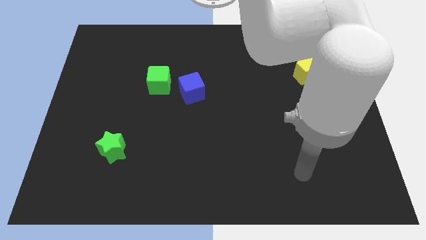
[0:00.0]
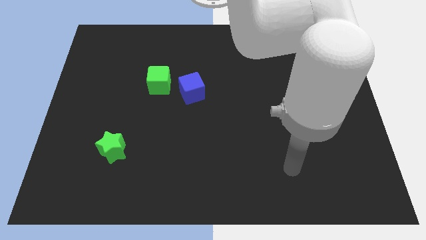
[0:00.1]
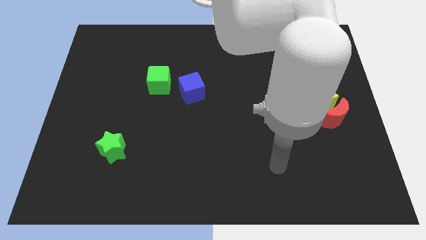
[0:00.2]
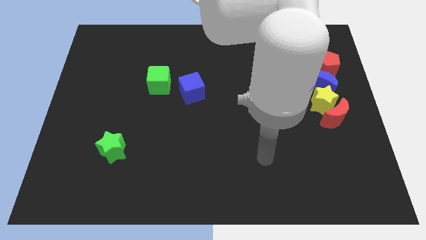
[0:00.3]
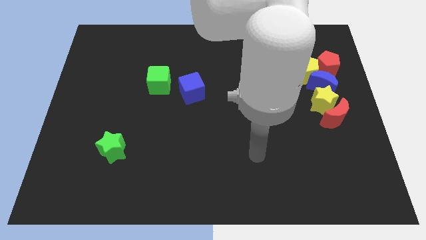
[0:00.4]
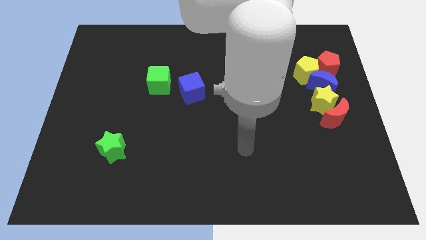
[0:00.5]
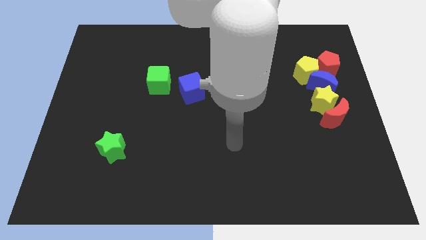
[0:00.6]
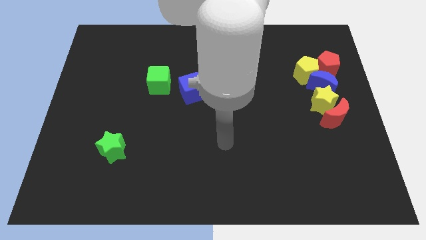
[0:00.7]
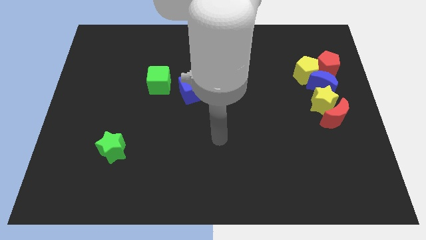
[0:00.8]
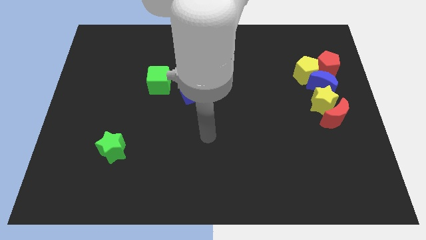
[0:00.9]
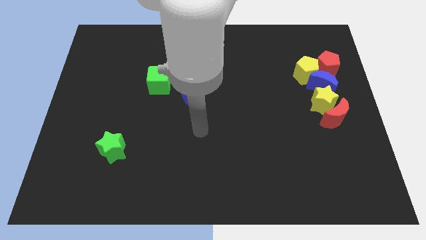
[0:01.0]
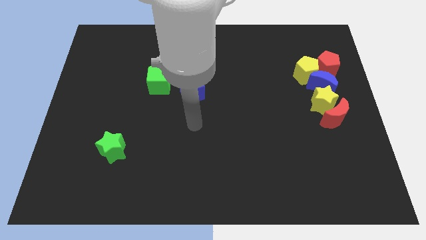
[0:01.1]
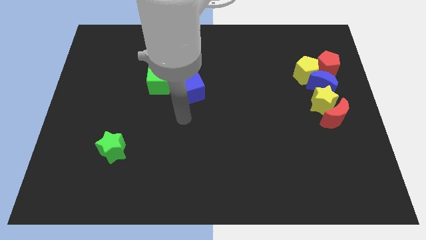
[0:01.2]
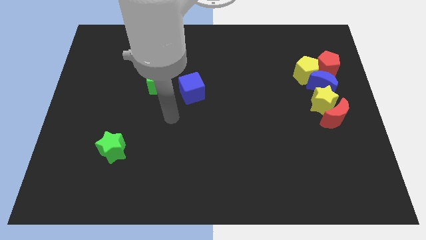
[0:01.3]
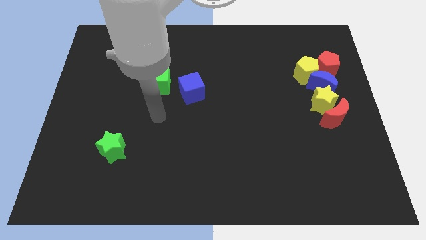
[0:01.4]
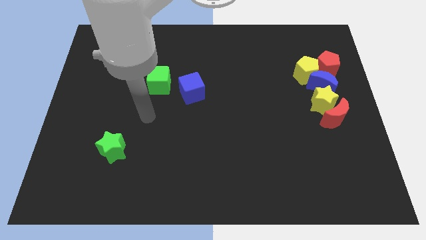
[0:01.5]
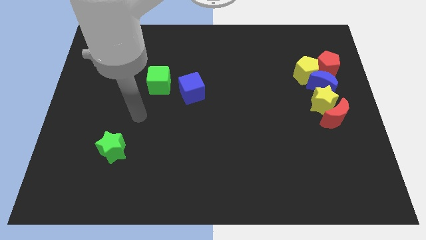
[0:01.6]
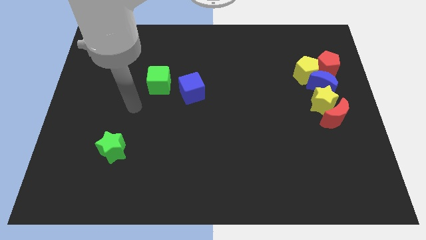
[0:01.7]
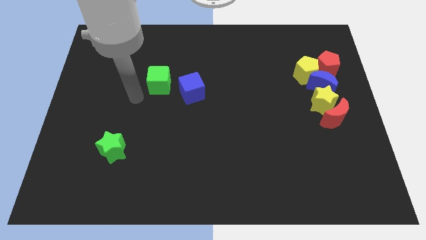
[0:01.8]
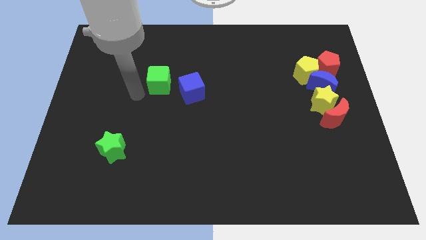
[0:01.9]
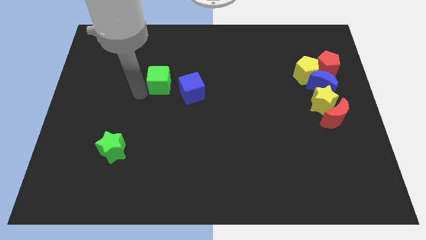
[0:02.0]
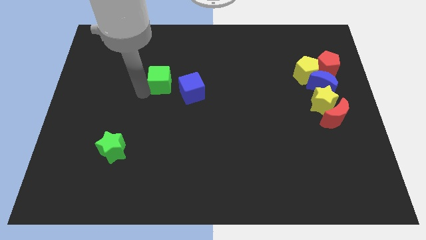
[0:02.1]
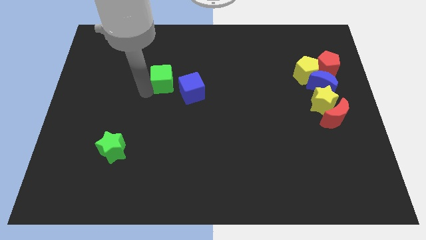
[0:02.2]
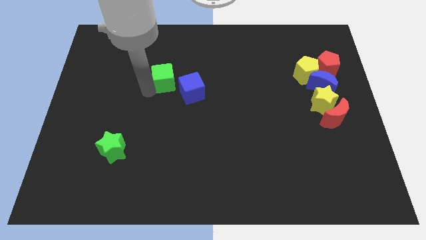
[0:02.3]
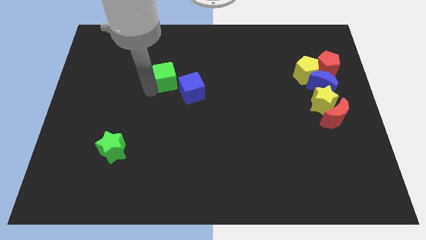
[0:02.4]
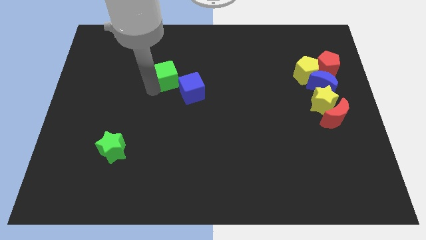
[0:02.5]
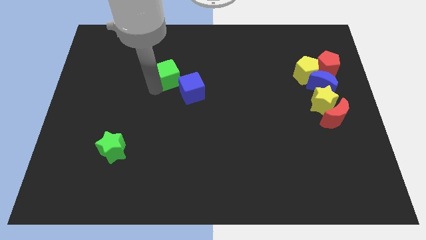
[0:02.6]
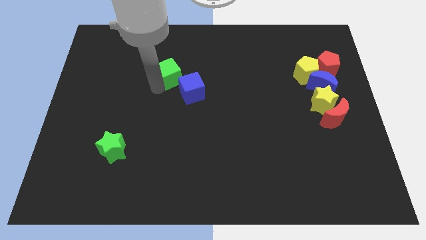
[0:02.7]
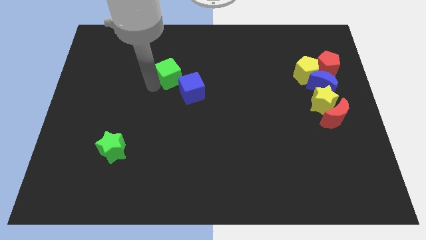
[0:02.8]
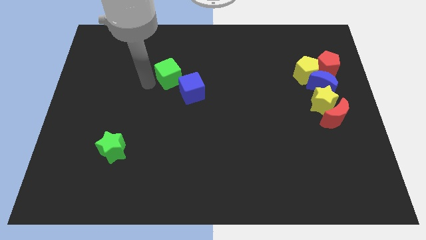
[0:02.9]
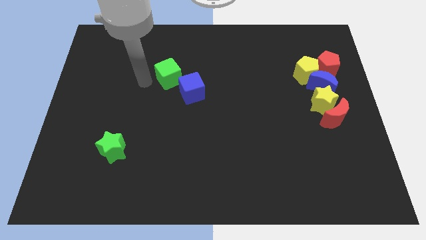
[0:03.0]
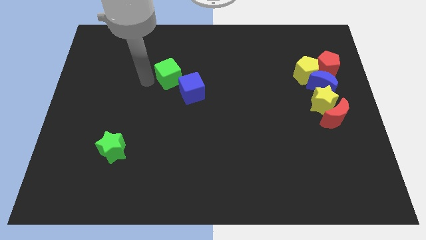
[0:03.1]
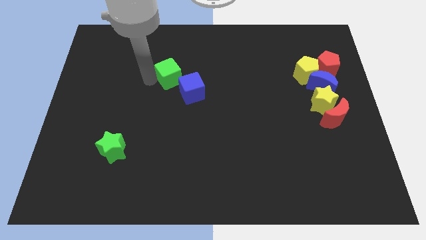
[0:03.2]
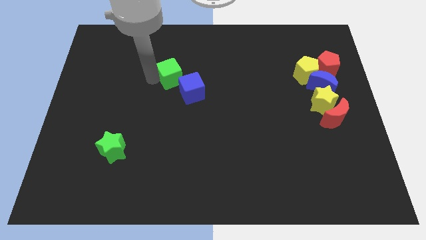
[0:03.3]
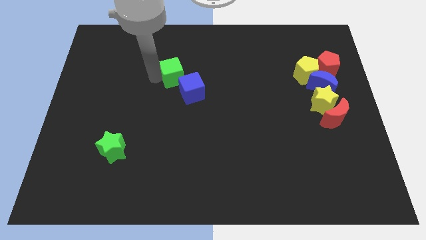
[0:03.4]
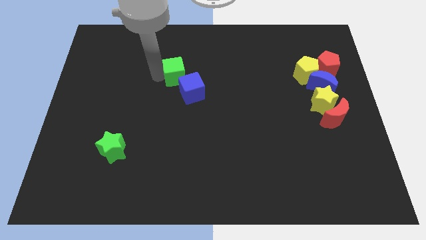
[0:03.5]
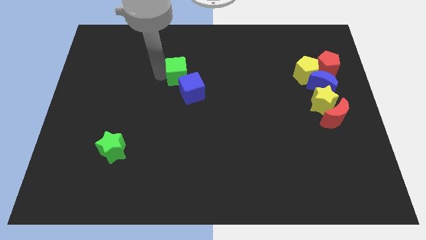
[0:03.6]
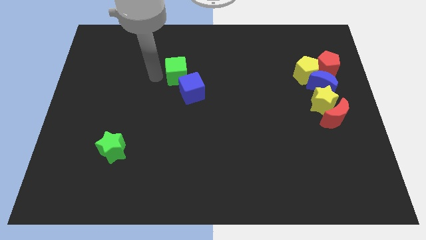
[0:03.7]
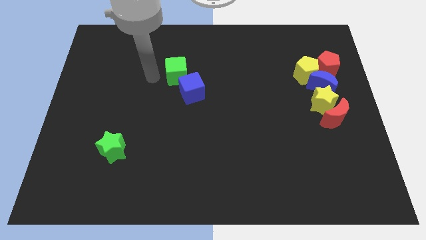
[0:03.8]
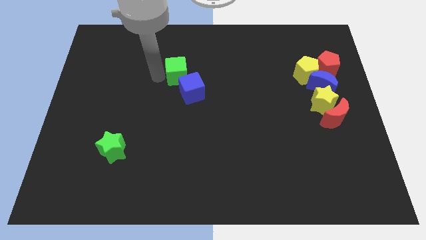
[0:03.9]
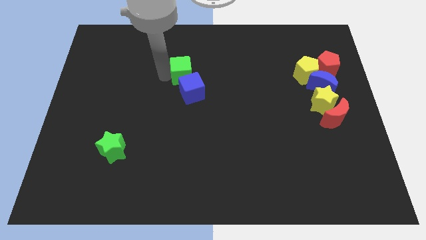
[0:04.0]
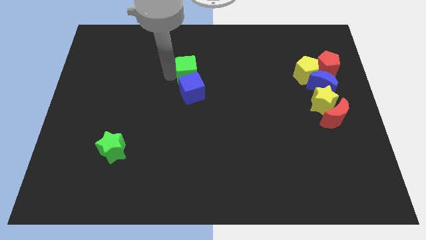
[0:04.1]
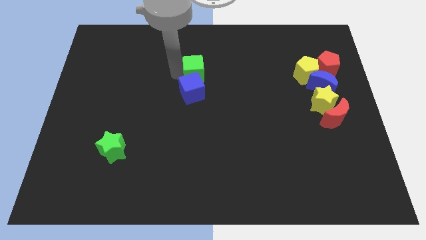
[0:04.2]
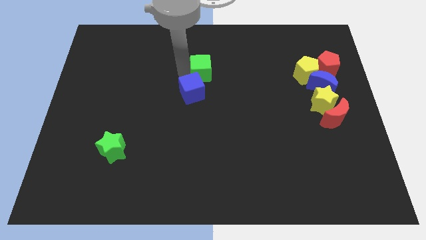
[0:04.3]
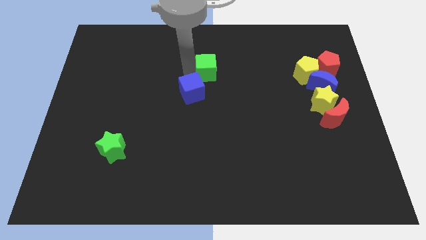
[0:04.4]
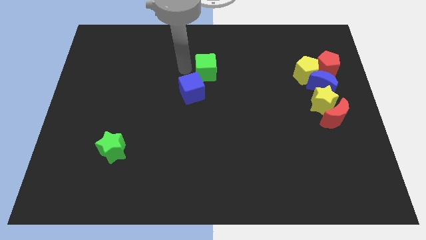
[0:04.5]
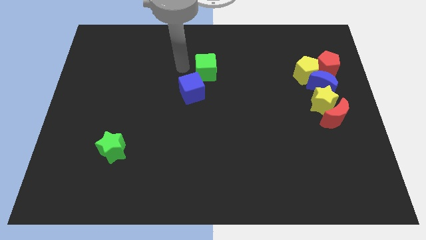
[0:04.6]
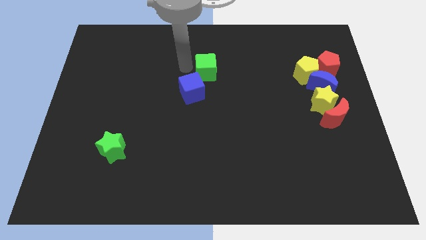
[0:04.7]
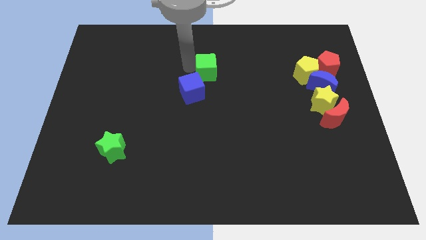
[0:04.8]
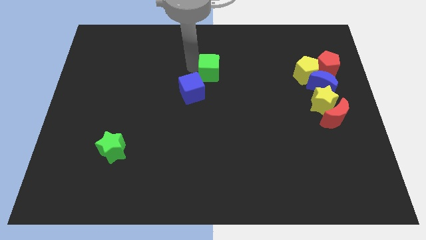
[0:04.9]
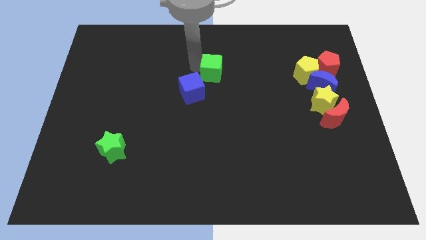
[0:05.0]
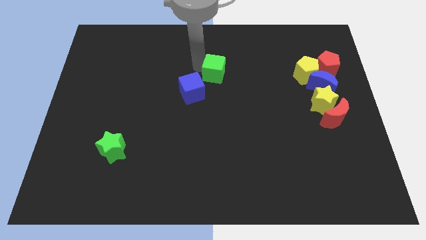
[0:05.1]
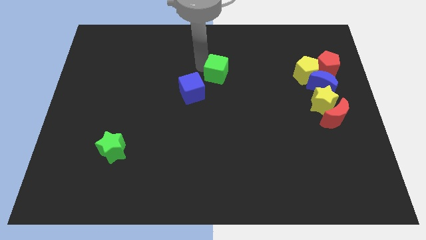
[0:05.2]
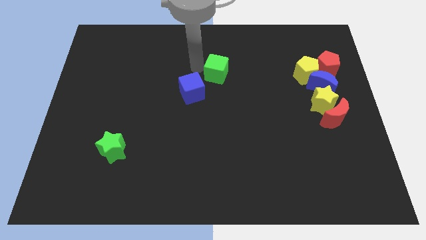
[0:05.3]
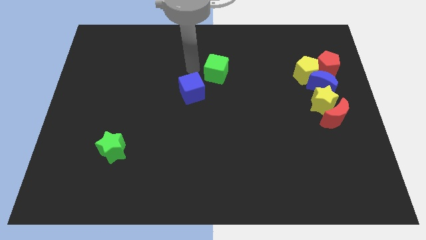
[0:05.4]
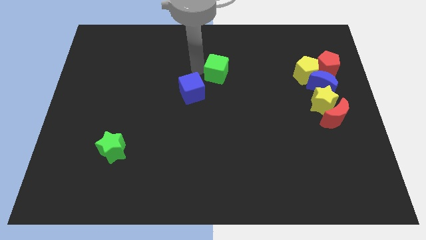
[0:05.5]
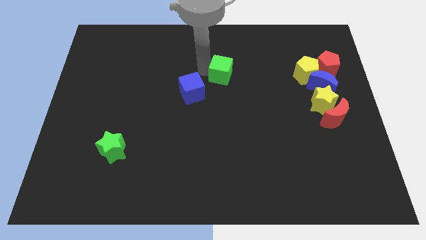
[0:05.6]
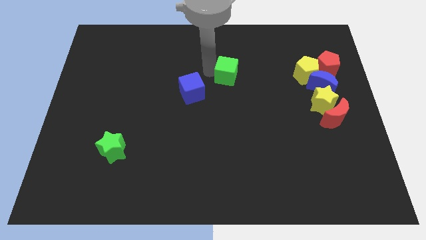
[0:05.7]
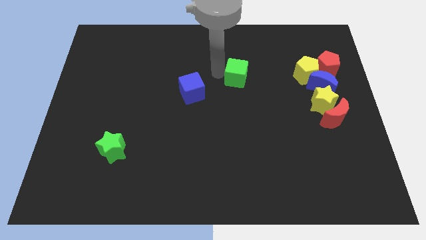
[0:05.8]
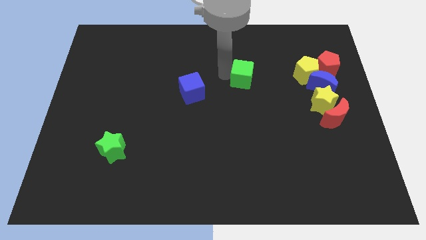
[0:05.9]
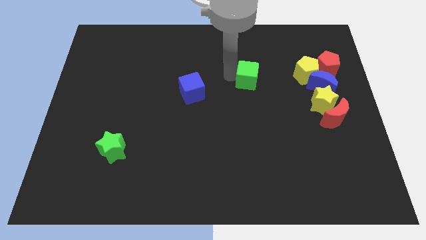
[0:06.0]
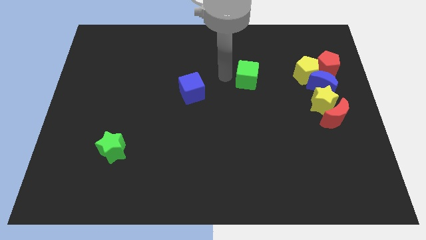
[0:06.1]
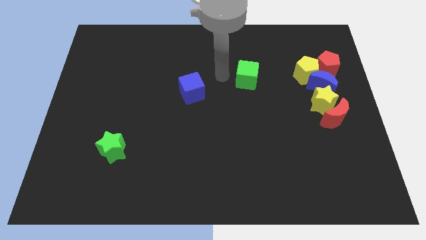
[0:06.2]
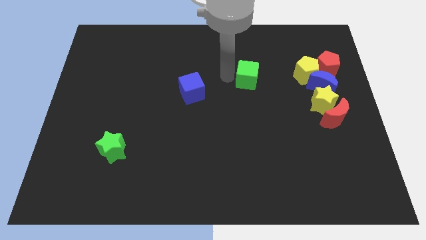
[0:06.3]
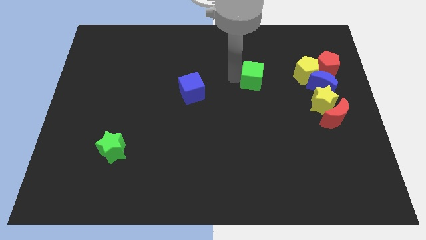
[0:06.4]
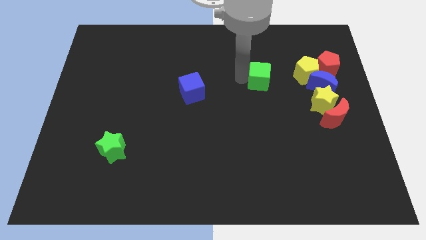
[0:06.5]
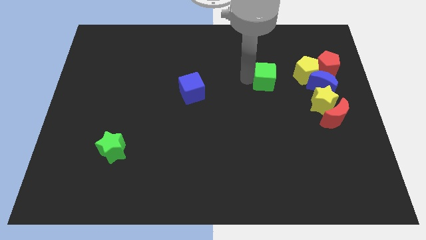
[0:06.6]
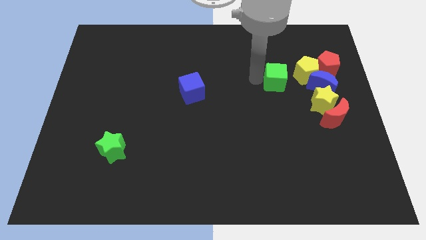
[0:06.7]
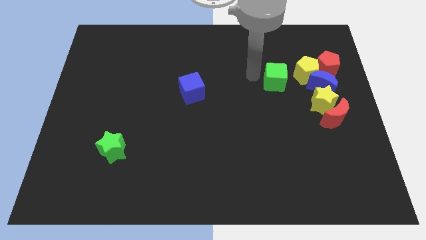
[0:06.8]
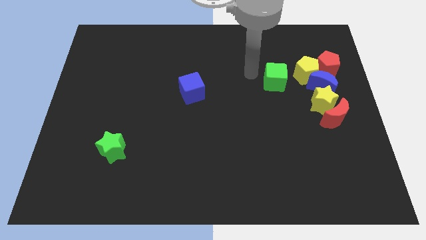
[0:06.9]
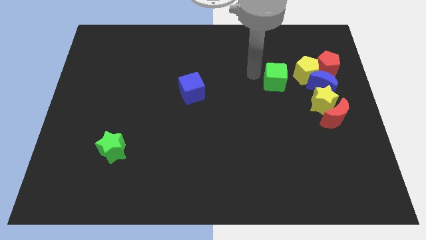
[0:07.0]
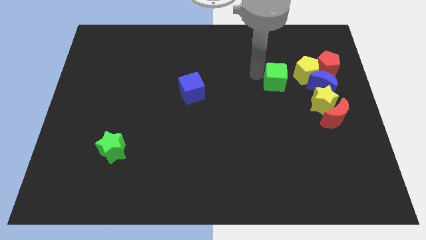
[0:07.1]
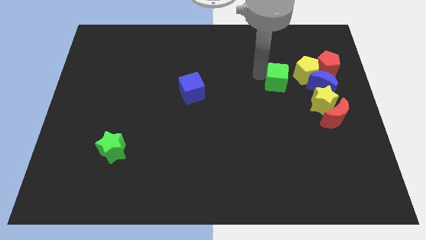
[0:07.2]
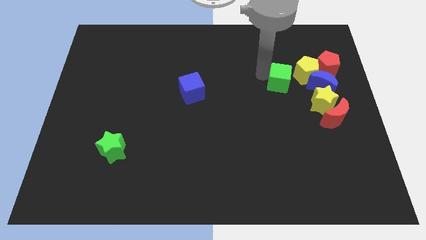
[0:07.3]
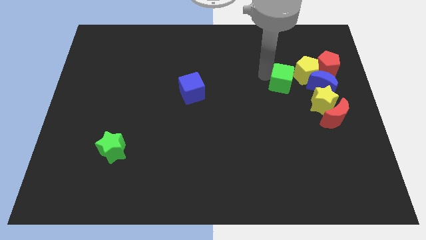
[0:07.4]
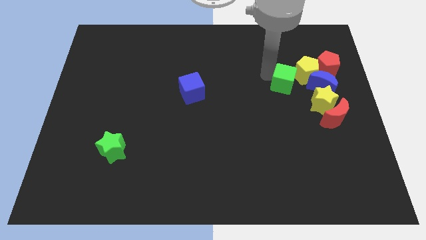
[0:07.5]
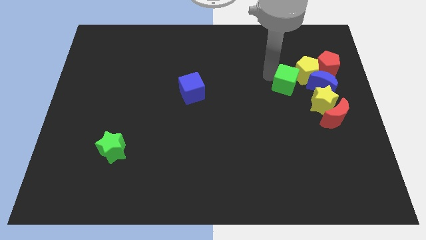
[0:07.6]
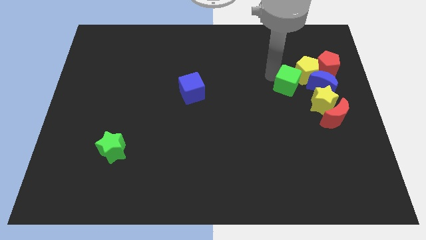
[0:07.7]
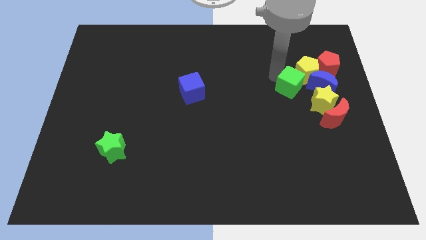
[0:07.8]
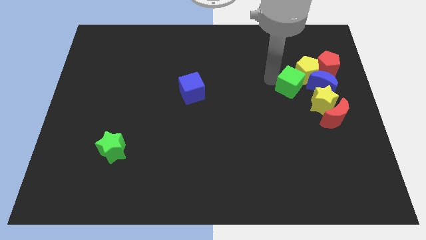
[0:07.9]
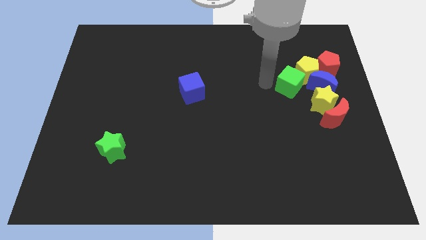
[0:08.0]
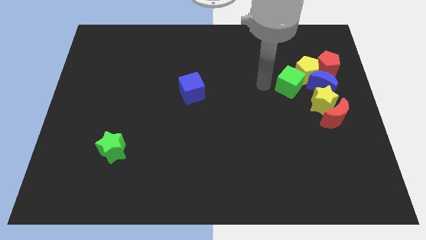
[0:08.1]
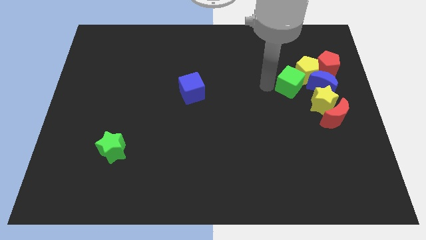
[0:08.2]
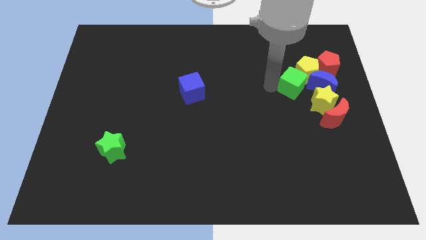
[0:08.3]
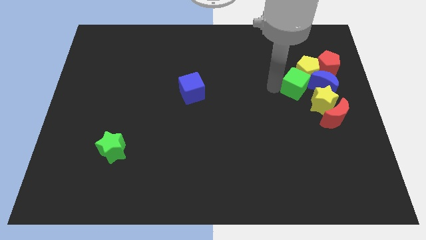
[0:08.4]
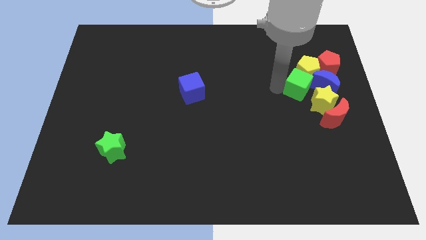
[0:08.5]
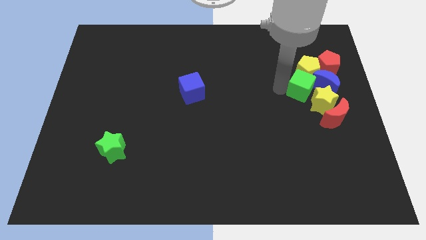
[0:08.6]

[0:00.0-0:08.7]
move the green cube towards the blue moon
